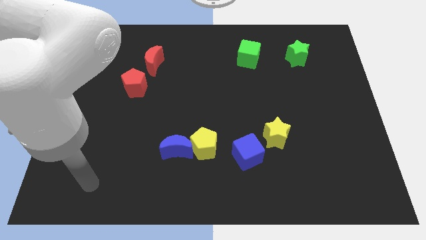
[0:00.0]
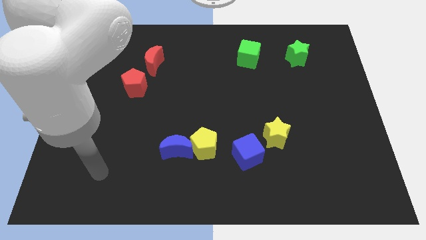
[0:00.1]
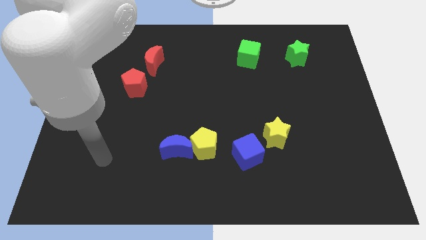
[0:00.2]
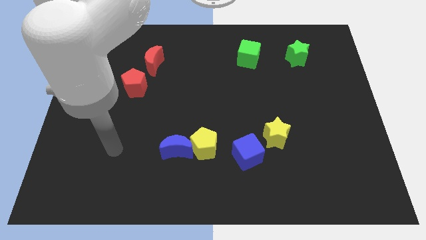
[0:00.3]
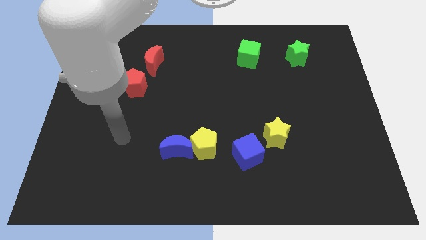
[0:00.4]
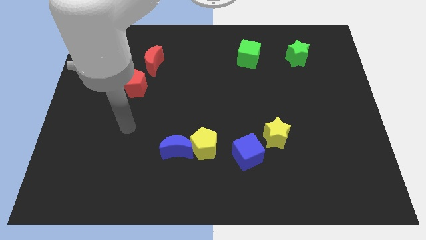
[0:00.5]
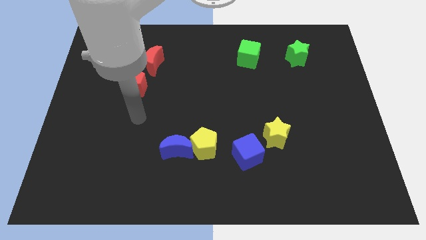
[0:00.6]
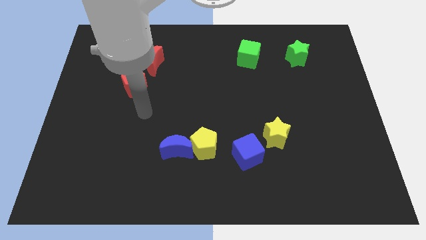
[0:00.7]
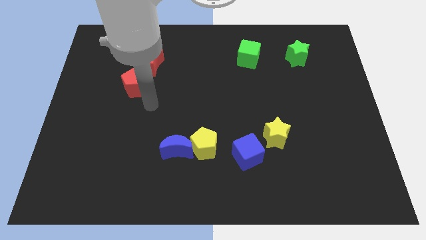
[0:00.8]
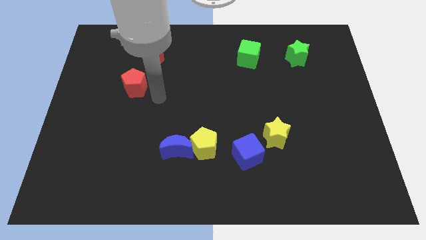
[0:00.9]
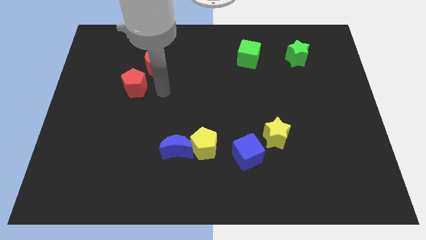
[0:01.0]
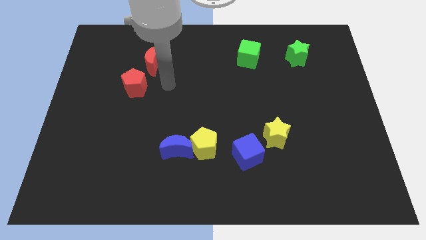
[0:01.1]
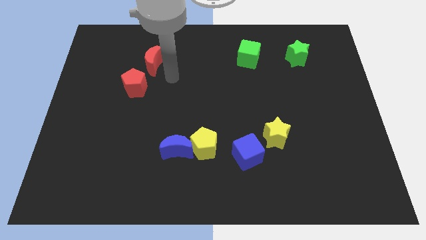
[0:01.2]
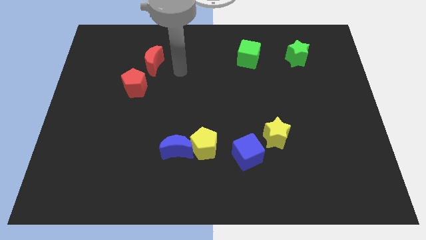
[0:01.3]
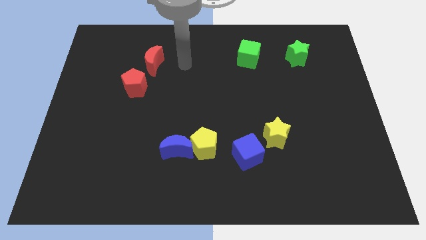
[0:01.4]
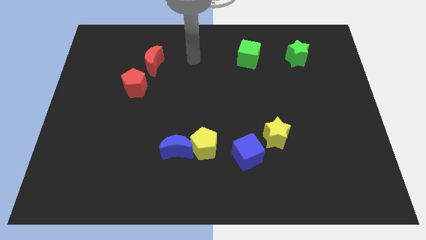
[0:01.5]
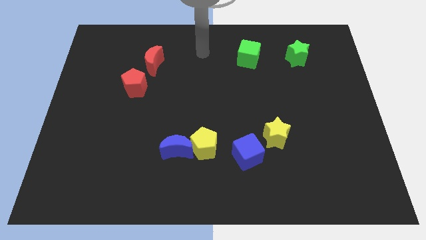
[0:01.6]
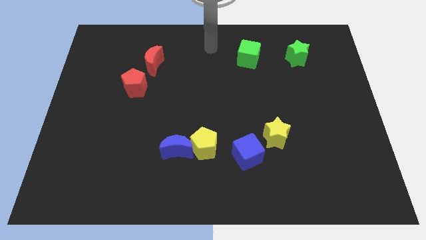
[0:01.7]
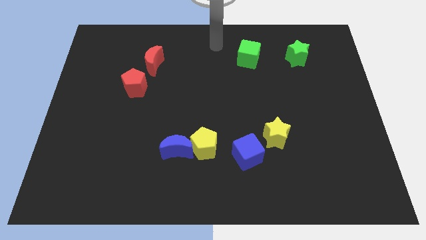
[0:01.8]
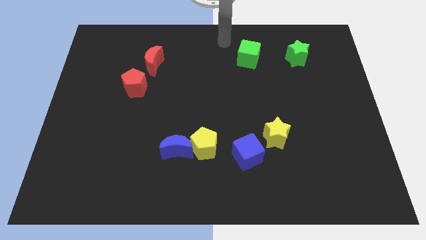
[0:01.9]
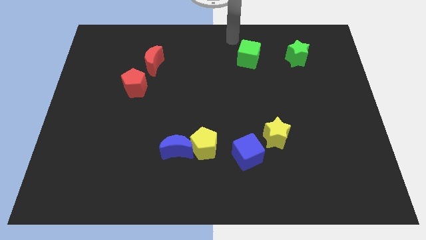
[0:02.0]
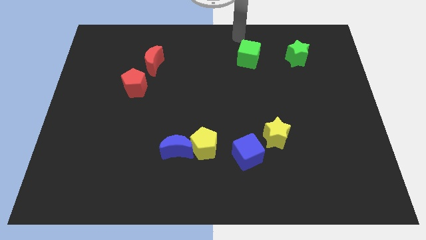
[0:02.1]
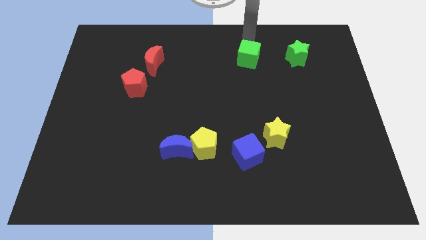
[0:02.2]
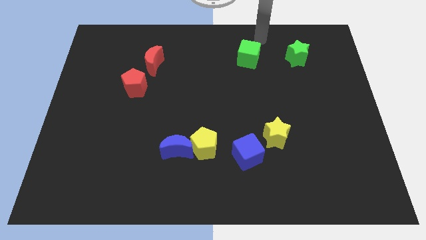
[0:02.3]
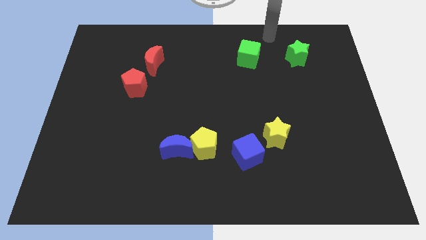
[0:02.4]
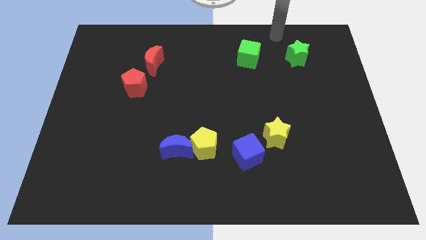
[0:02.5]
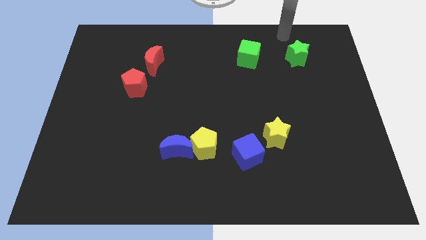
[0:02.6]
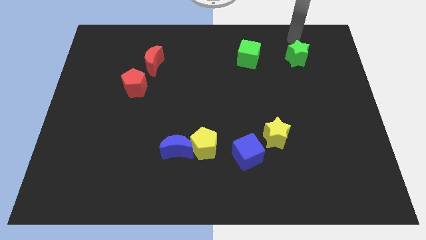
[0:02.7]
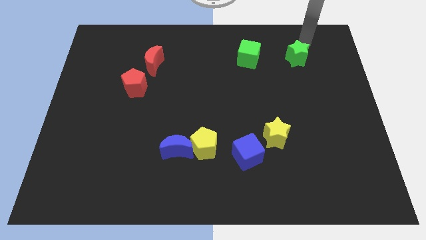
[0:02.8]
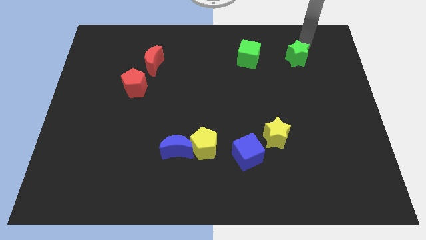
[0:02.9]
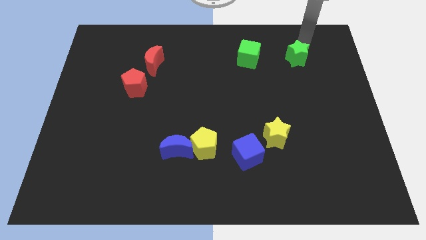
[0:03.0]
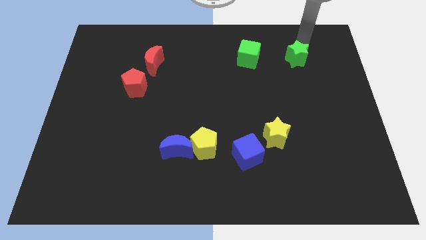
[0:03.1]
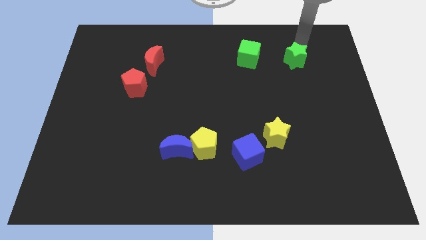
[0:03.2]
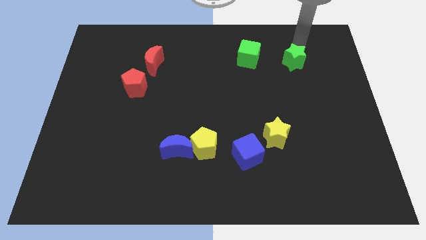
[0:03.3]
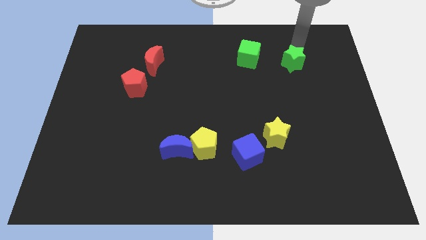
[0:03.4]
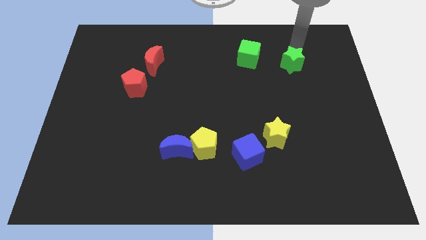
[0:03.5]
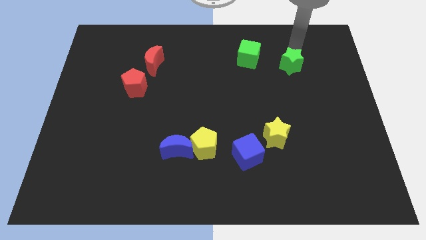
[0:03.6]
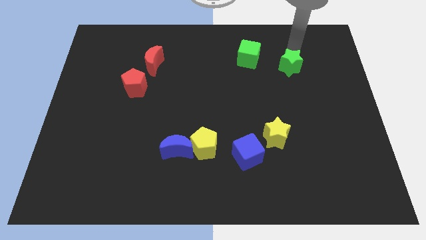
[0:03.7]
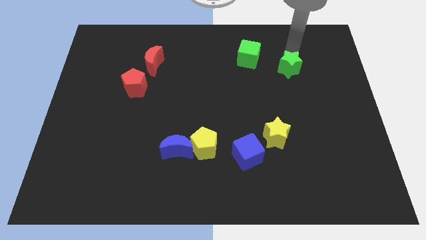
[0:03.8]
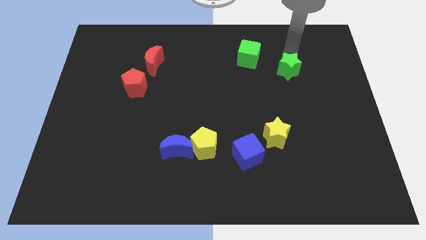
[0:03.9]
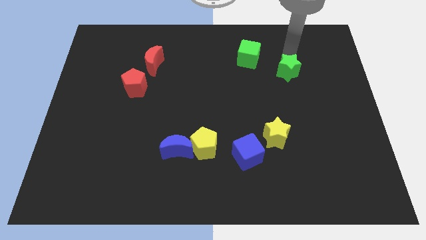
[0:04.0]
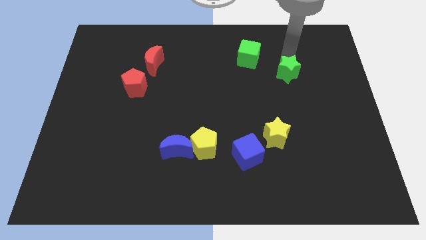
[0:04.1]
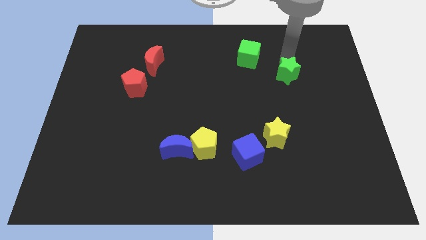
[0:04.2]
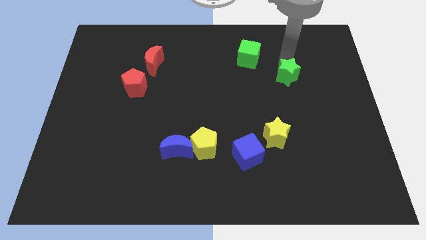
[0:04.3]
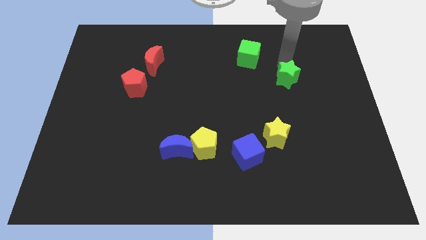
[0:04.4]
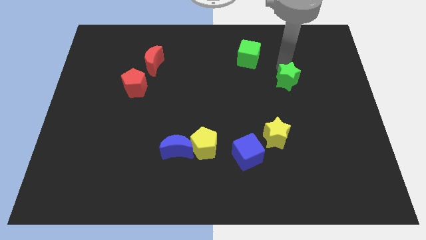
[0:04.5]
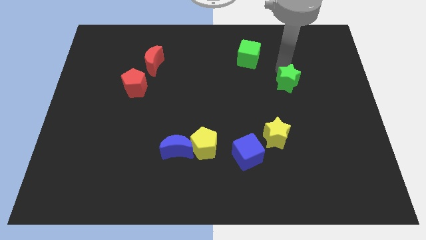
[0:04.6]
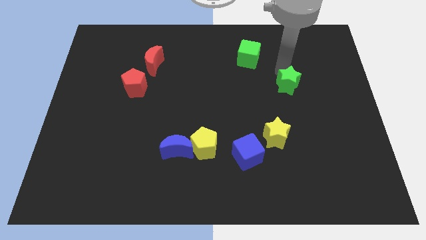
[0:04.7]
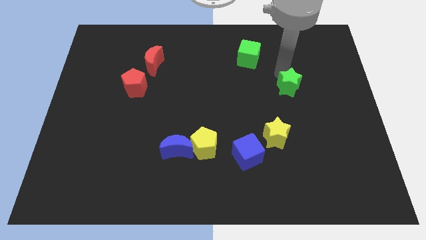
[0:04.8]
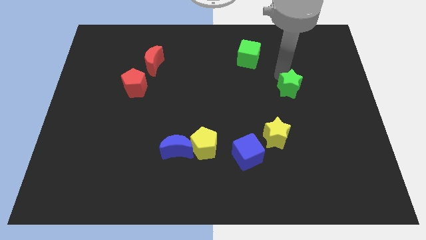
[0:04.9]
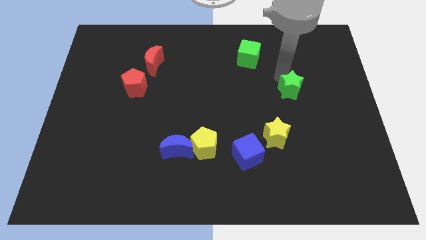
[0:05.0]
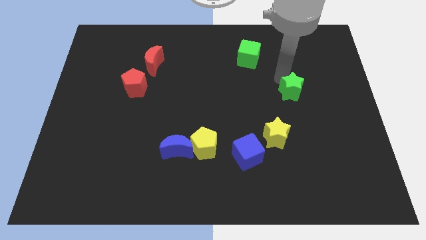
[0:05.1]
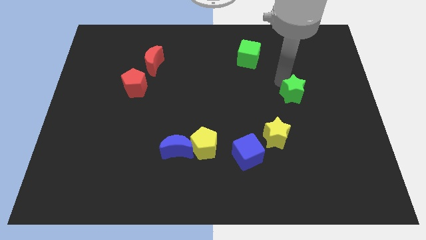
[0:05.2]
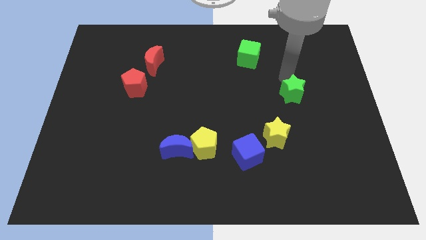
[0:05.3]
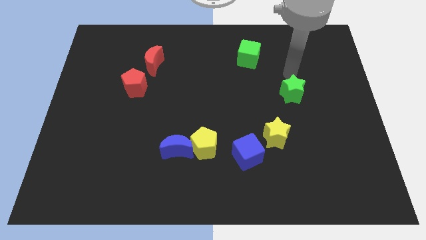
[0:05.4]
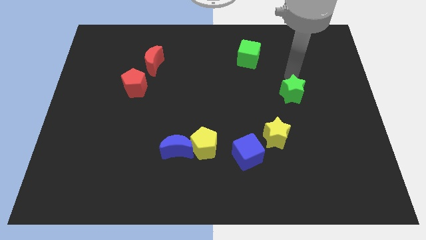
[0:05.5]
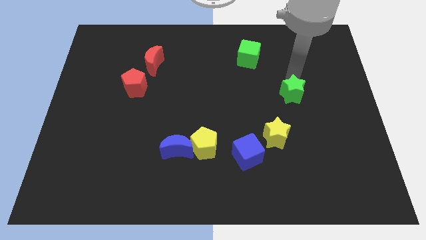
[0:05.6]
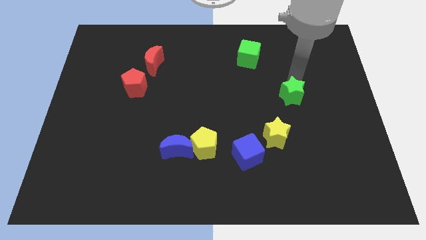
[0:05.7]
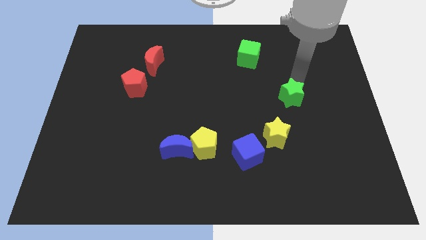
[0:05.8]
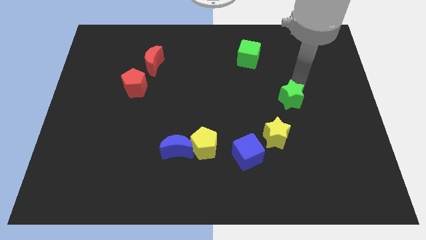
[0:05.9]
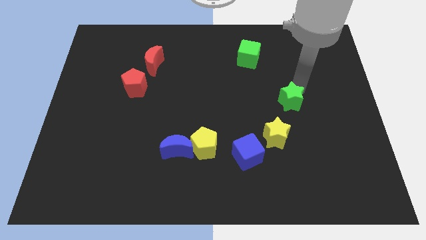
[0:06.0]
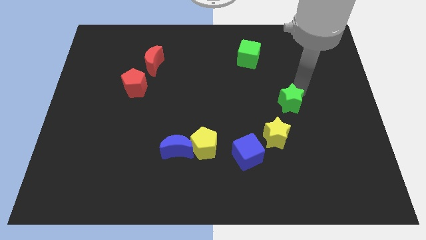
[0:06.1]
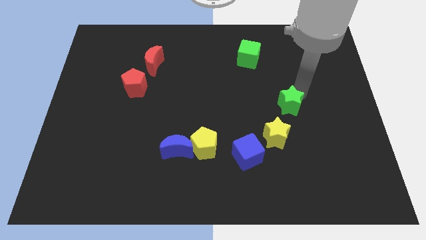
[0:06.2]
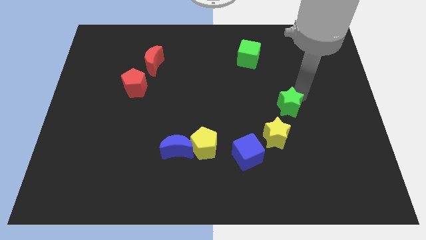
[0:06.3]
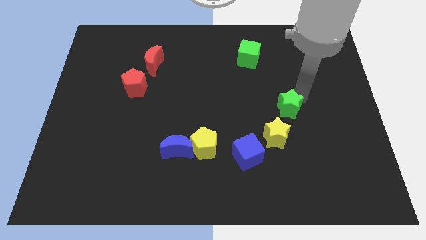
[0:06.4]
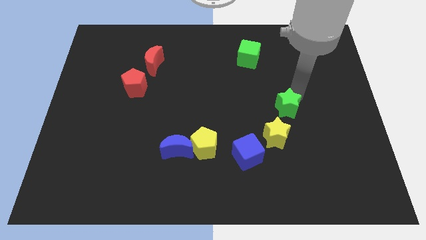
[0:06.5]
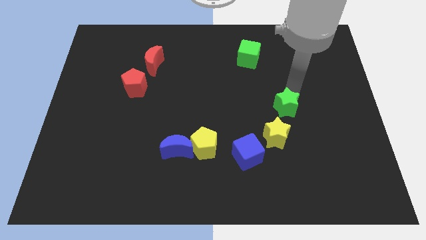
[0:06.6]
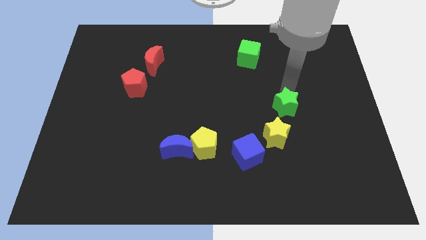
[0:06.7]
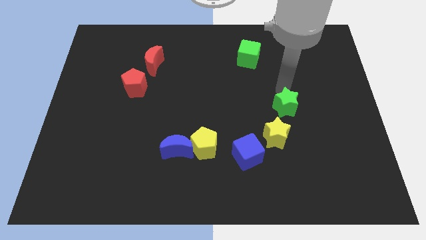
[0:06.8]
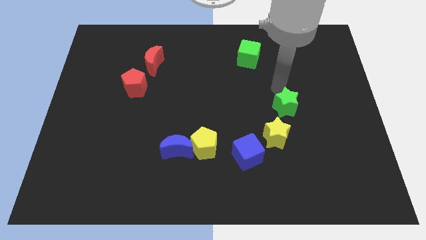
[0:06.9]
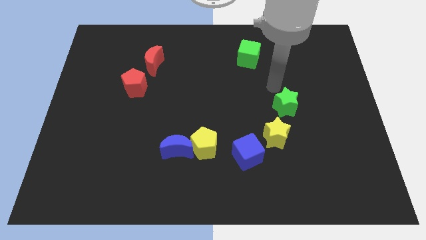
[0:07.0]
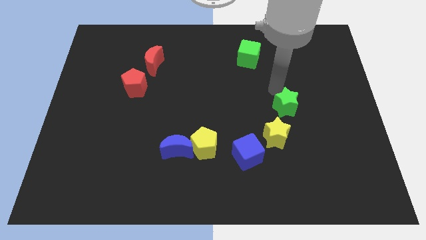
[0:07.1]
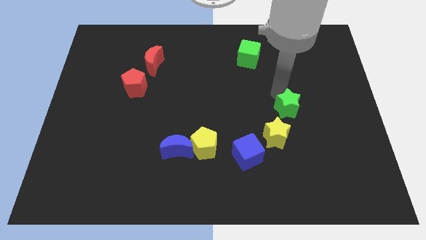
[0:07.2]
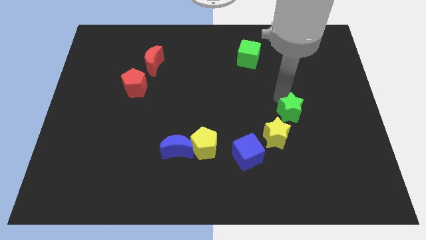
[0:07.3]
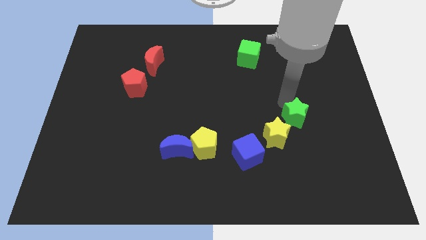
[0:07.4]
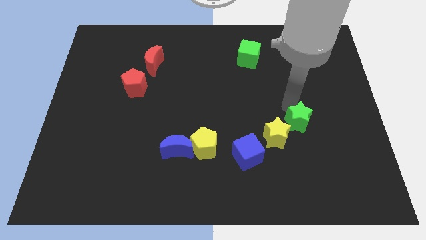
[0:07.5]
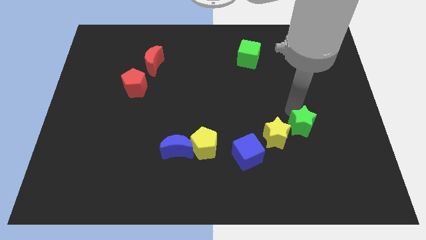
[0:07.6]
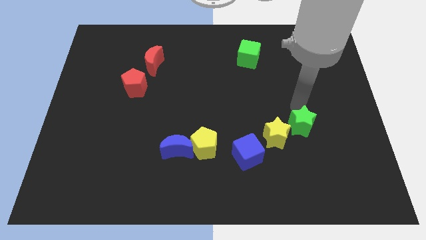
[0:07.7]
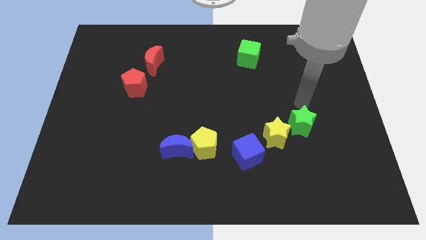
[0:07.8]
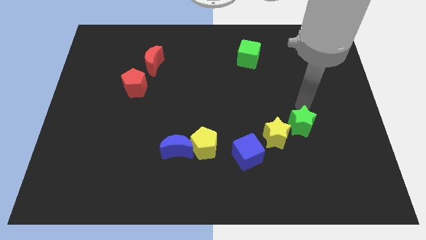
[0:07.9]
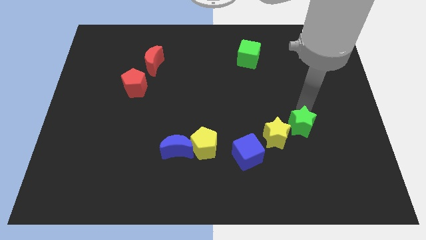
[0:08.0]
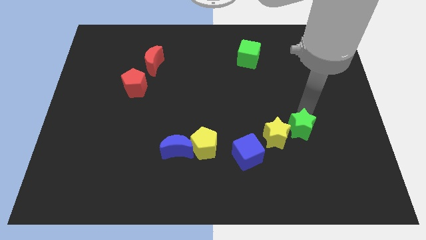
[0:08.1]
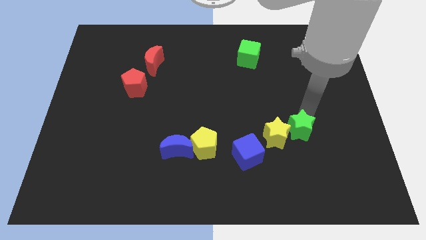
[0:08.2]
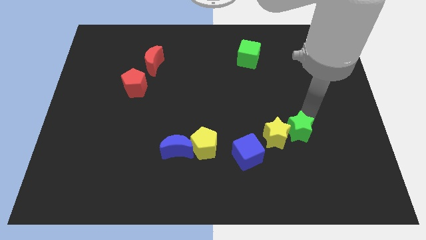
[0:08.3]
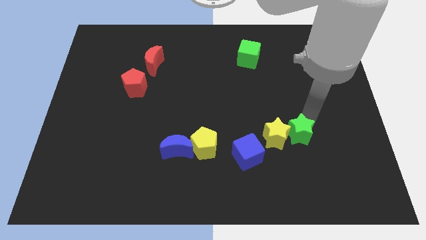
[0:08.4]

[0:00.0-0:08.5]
put the green star diagonally down and to the right of the yellow star
